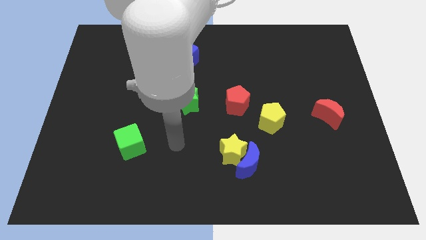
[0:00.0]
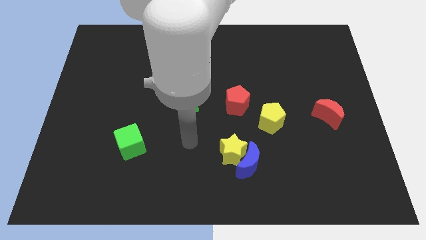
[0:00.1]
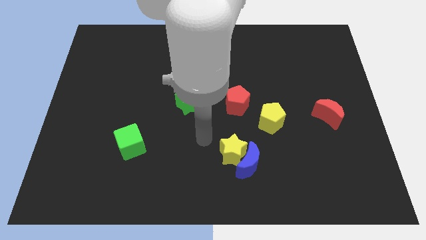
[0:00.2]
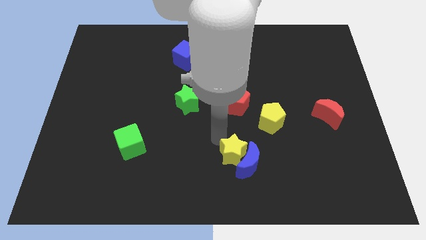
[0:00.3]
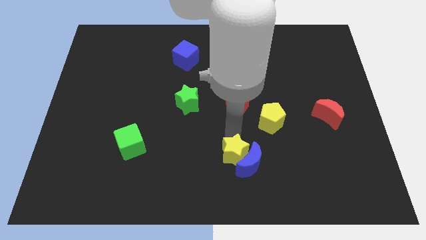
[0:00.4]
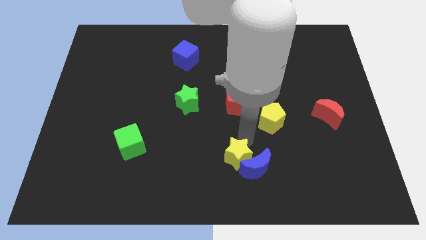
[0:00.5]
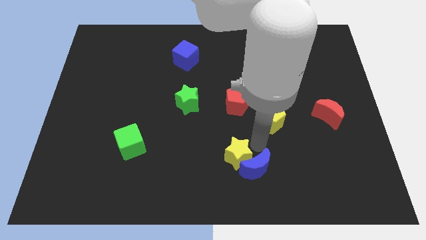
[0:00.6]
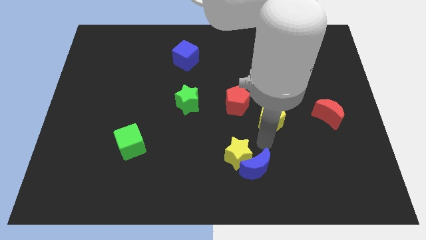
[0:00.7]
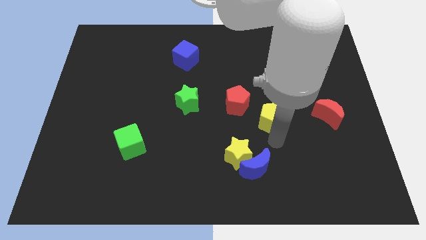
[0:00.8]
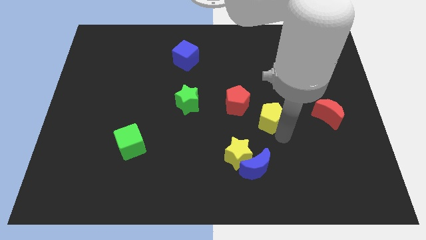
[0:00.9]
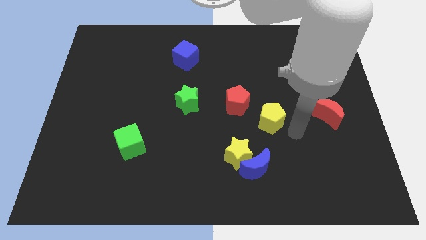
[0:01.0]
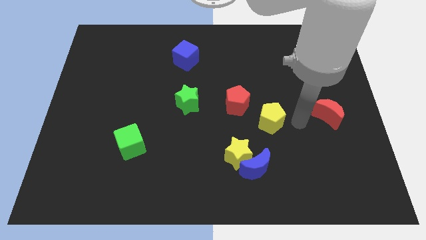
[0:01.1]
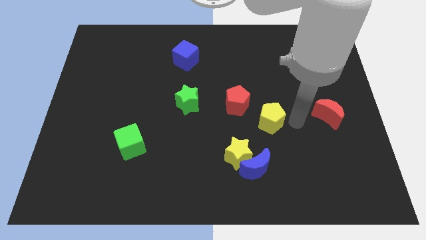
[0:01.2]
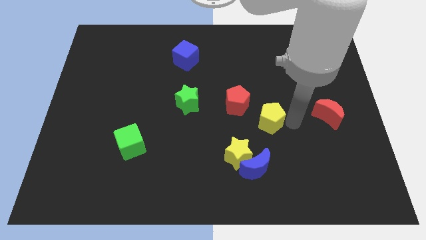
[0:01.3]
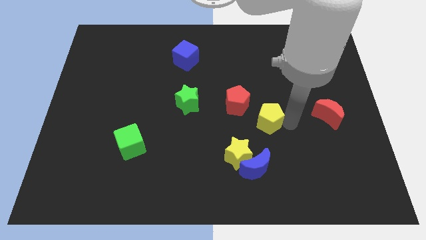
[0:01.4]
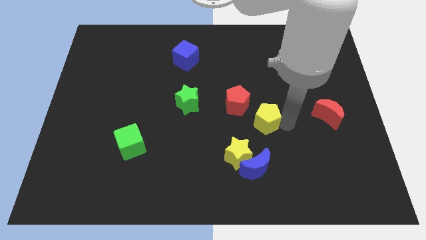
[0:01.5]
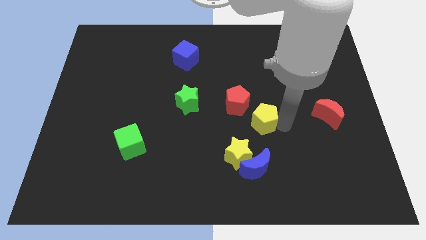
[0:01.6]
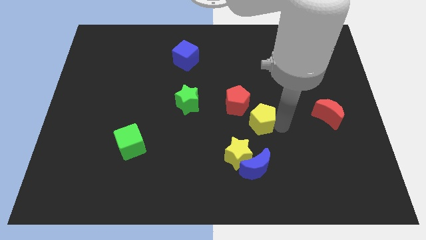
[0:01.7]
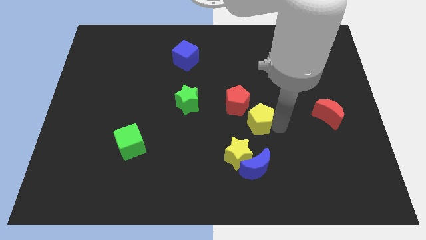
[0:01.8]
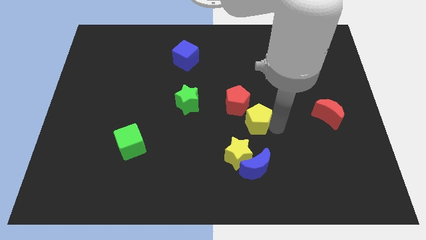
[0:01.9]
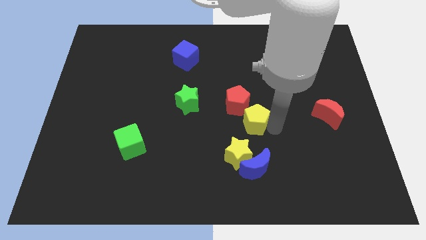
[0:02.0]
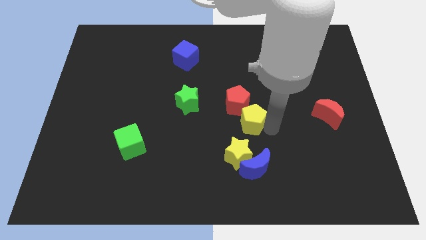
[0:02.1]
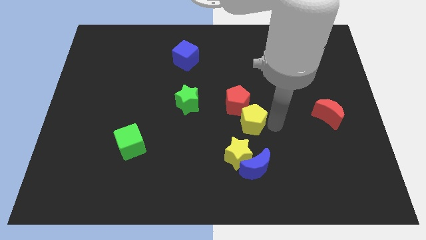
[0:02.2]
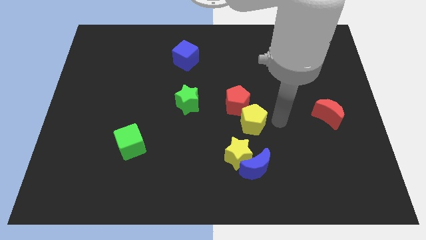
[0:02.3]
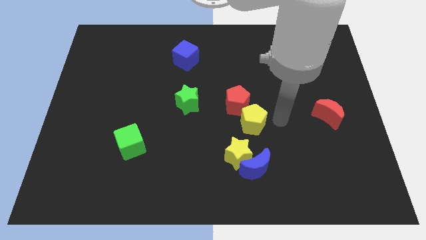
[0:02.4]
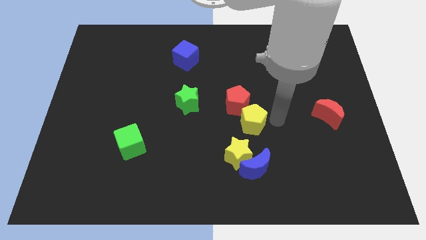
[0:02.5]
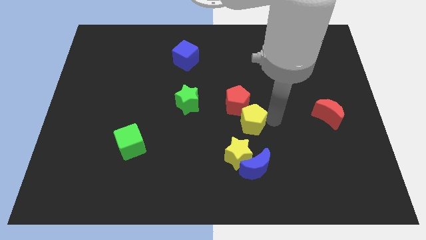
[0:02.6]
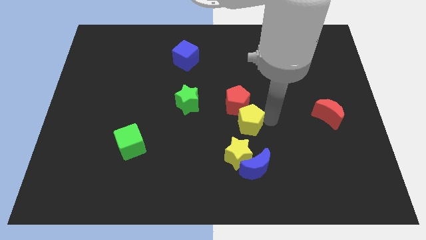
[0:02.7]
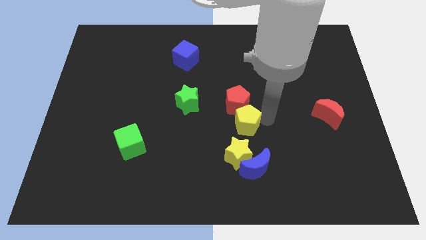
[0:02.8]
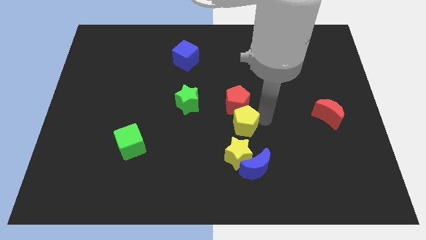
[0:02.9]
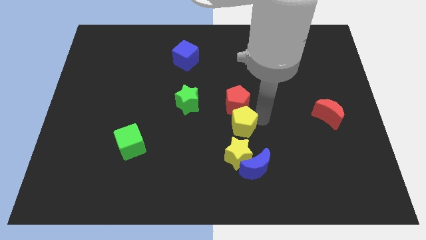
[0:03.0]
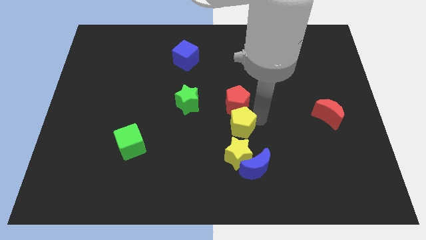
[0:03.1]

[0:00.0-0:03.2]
move the yellow pentagon somewhat to the left

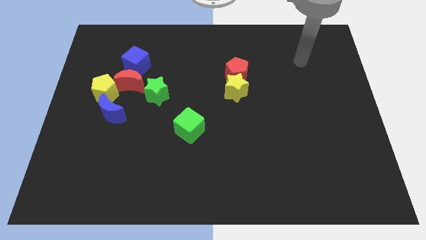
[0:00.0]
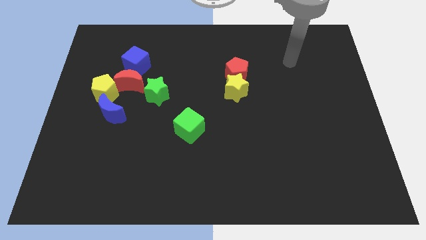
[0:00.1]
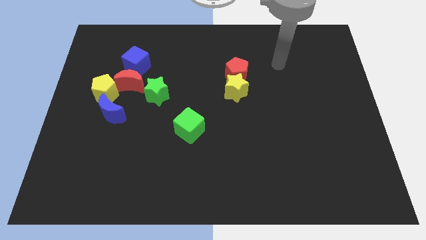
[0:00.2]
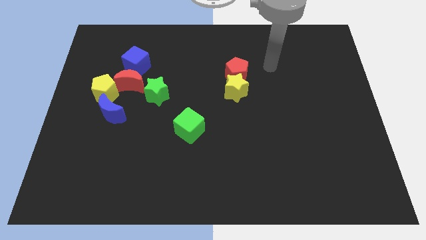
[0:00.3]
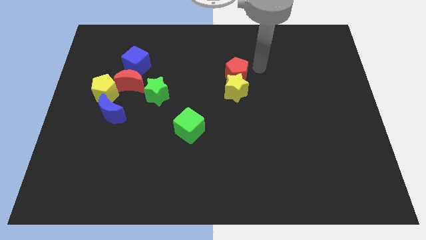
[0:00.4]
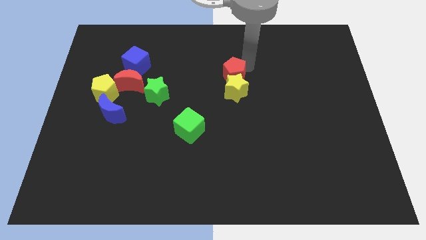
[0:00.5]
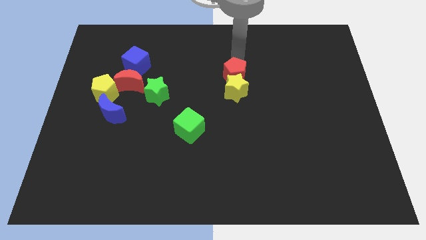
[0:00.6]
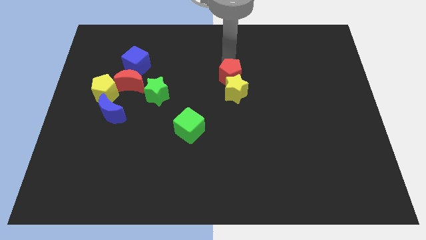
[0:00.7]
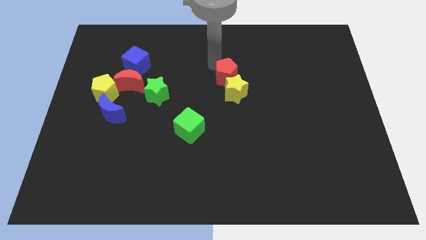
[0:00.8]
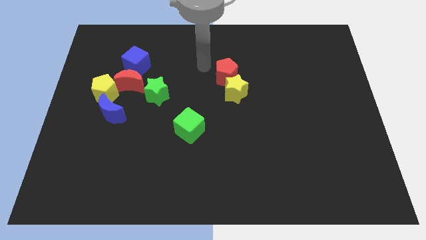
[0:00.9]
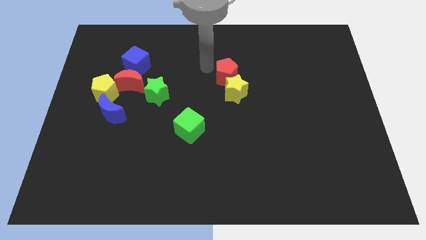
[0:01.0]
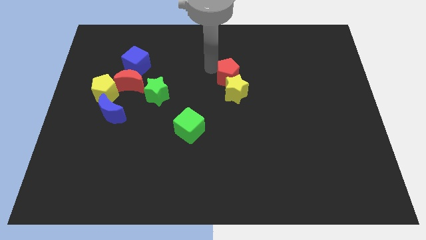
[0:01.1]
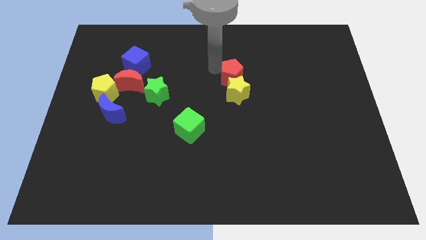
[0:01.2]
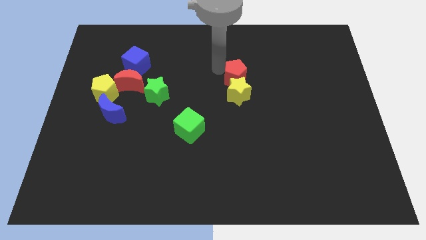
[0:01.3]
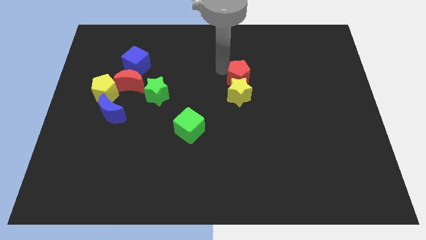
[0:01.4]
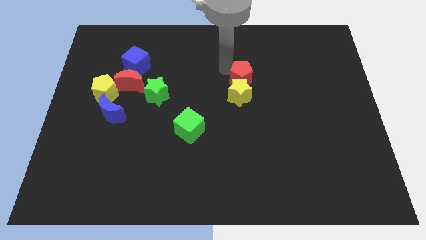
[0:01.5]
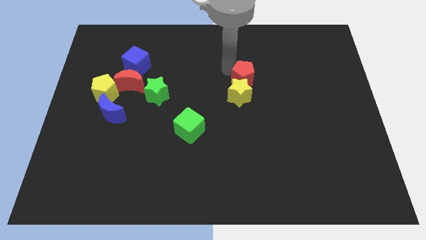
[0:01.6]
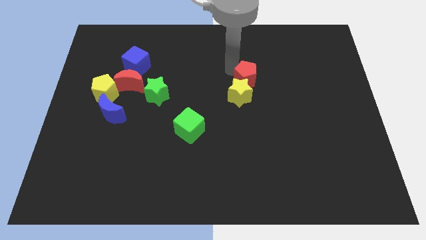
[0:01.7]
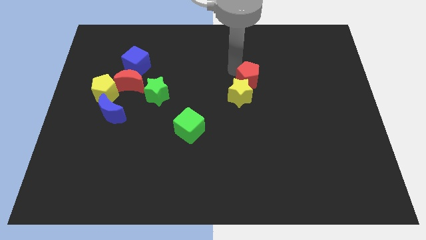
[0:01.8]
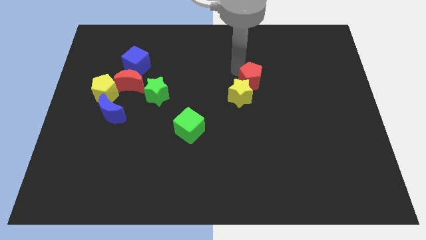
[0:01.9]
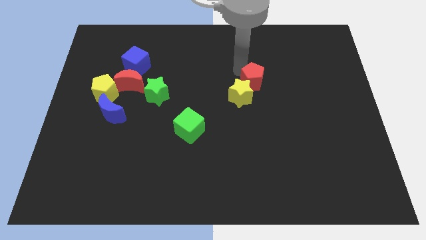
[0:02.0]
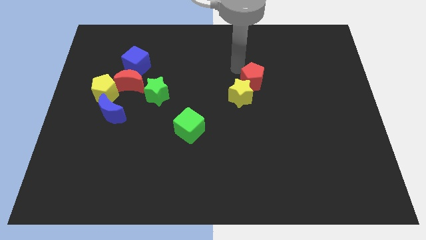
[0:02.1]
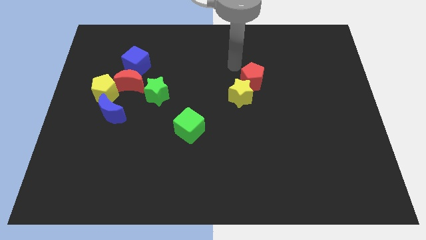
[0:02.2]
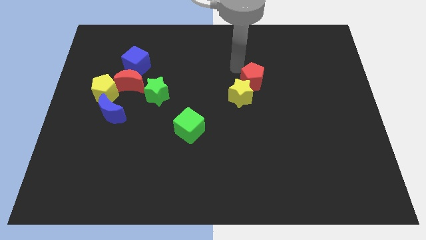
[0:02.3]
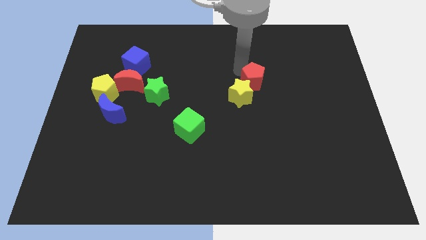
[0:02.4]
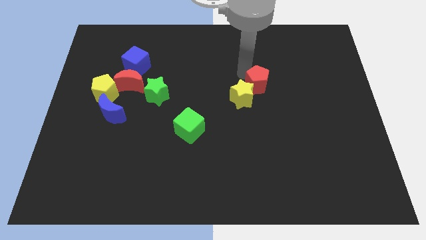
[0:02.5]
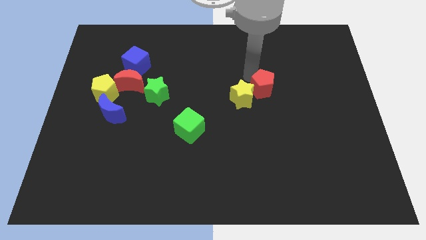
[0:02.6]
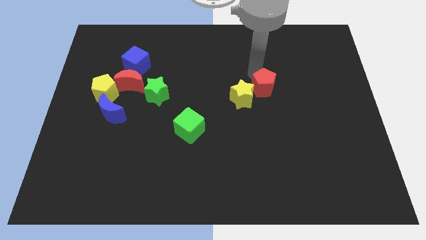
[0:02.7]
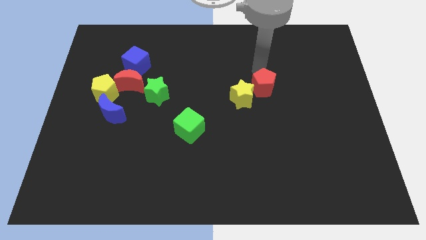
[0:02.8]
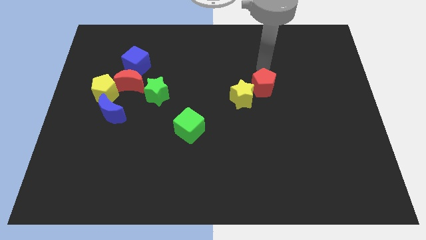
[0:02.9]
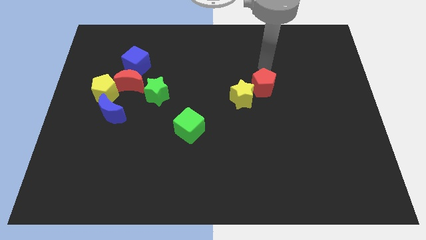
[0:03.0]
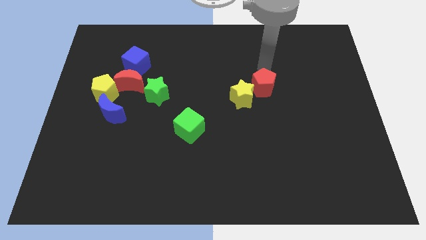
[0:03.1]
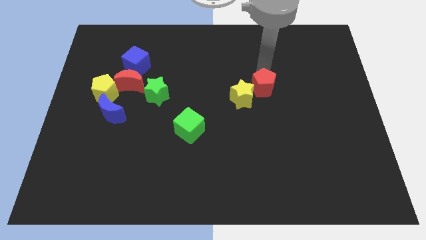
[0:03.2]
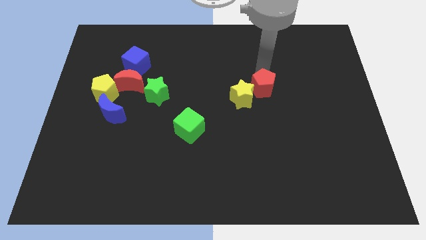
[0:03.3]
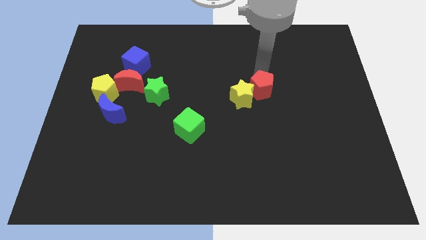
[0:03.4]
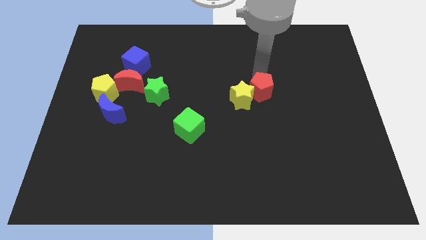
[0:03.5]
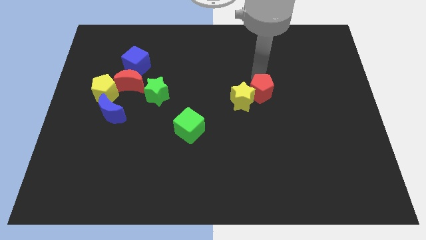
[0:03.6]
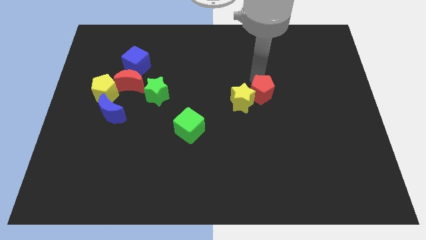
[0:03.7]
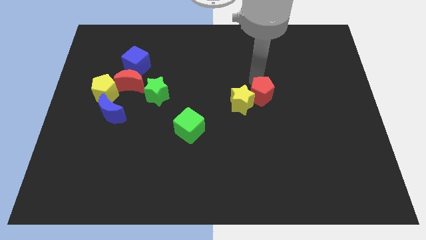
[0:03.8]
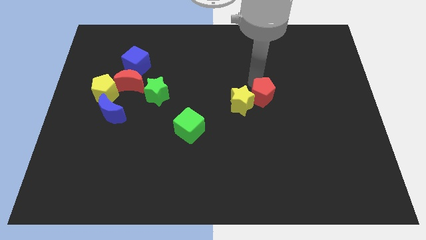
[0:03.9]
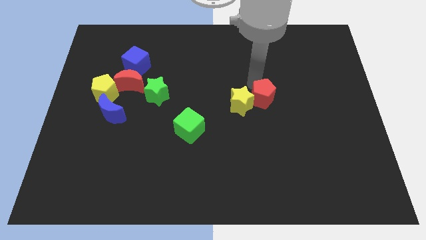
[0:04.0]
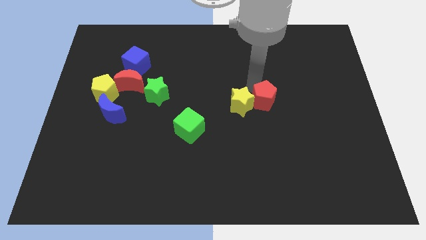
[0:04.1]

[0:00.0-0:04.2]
move the red pentagon downwards somewhat

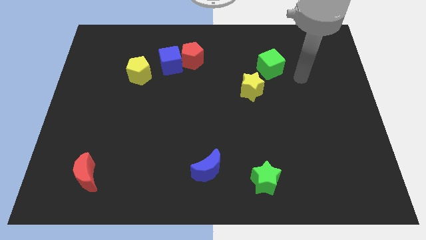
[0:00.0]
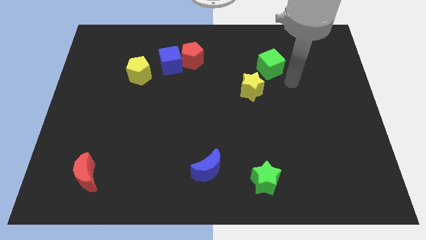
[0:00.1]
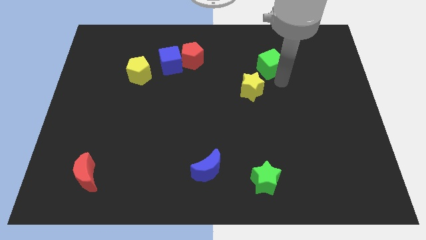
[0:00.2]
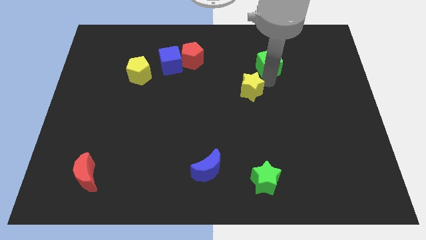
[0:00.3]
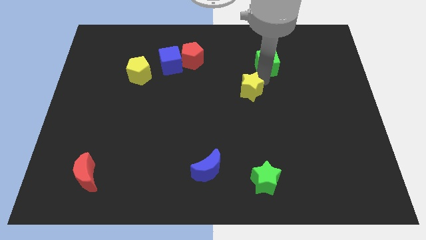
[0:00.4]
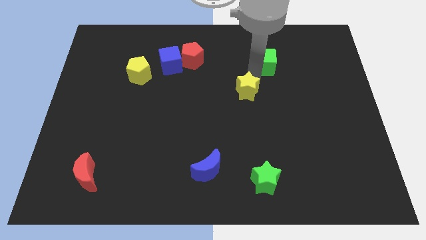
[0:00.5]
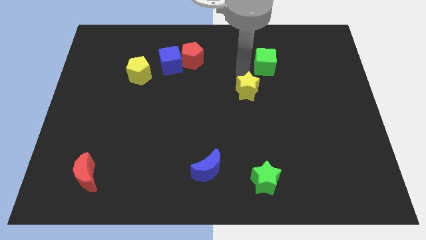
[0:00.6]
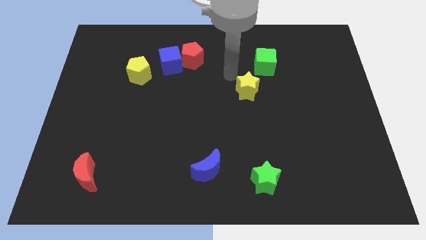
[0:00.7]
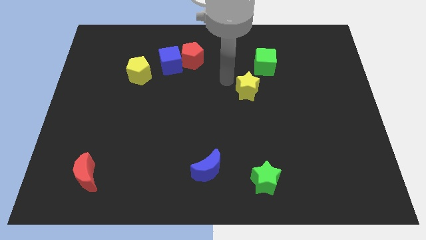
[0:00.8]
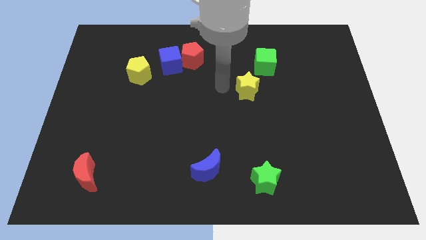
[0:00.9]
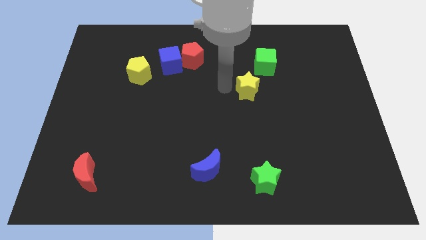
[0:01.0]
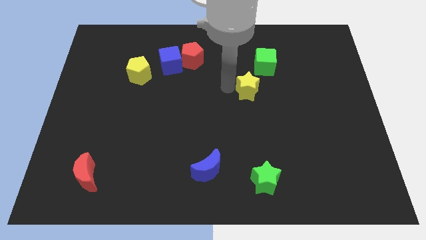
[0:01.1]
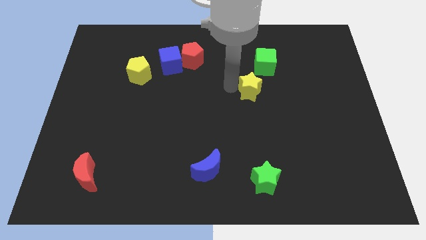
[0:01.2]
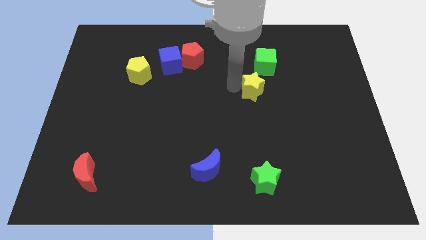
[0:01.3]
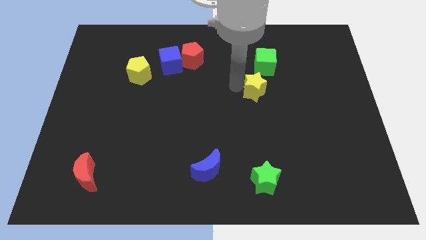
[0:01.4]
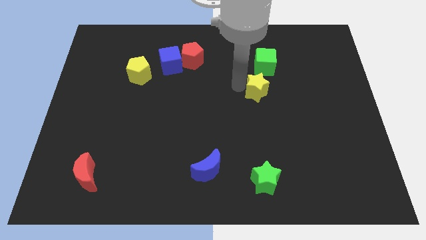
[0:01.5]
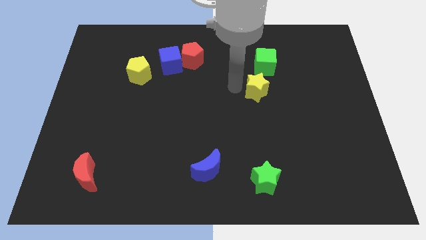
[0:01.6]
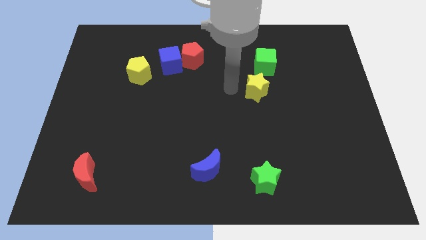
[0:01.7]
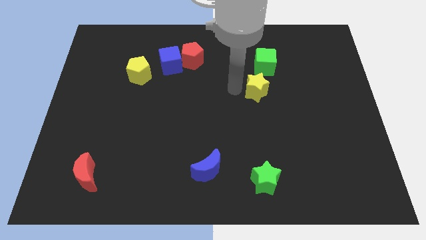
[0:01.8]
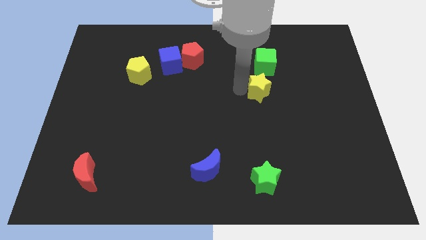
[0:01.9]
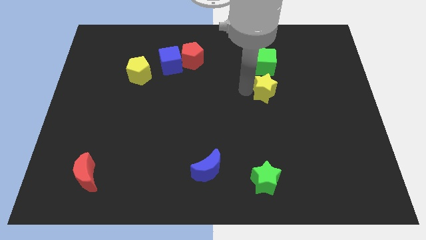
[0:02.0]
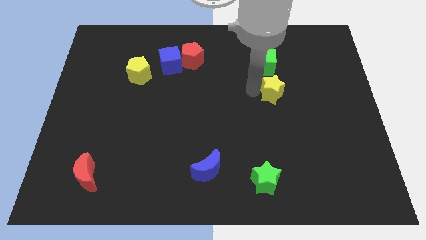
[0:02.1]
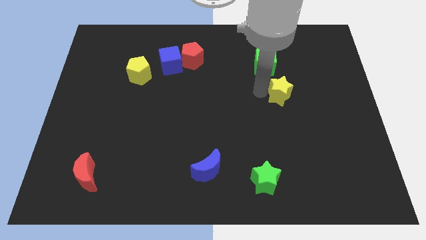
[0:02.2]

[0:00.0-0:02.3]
slightly push the yellow star right
